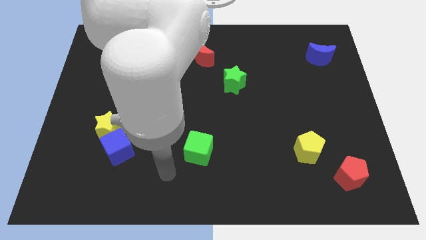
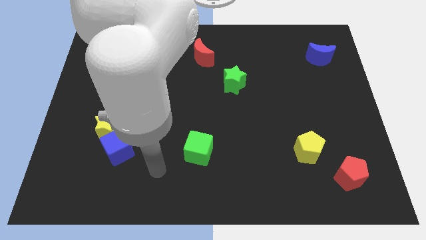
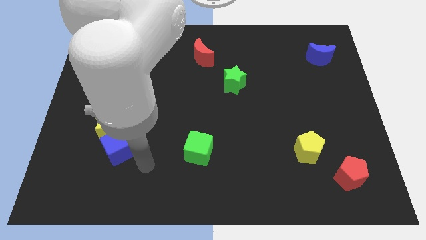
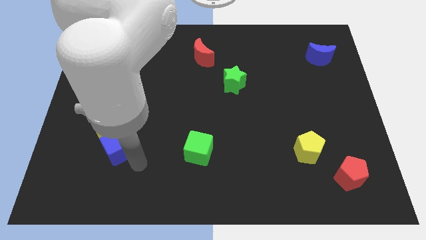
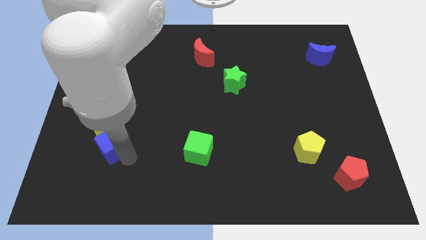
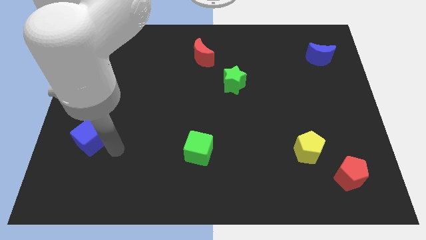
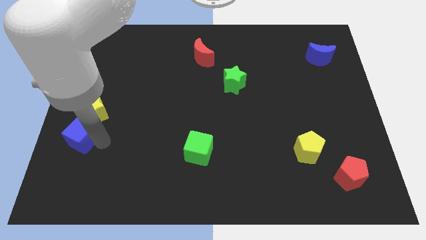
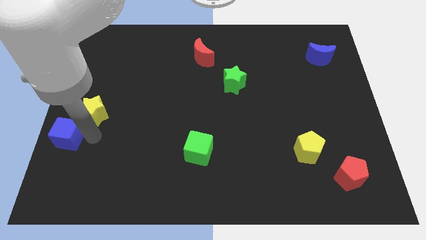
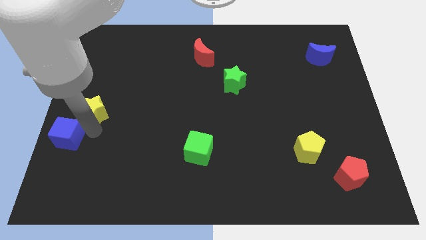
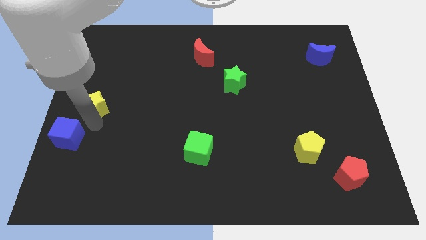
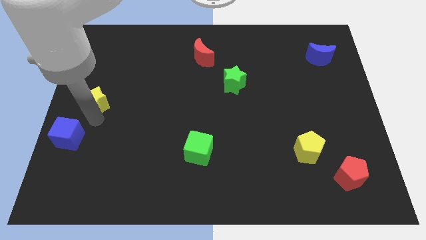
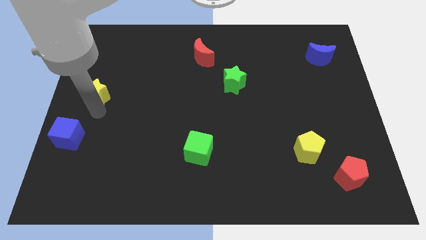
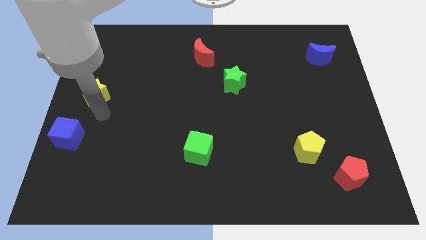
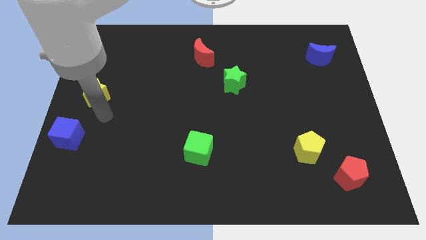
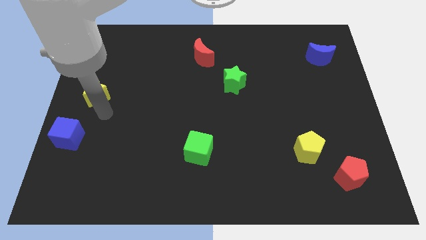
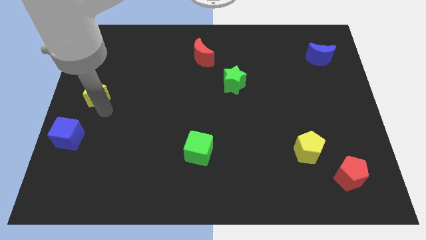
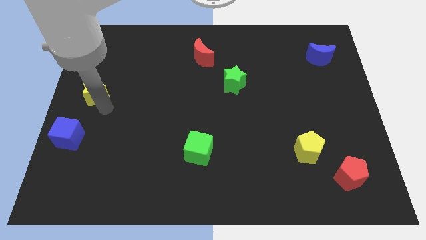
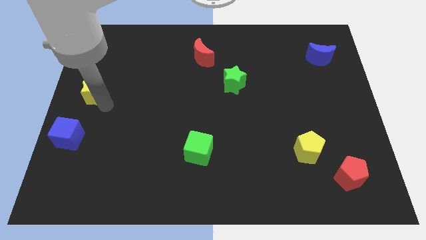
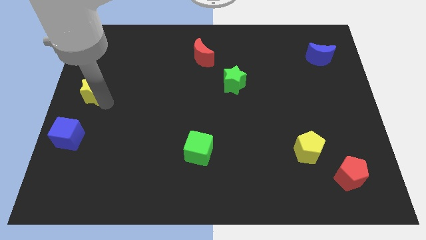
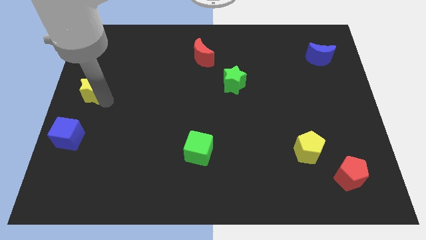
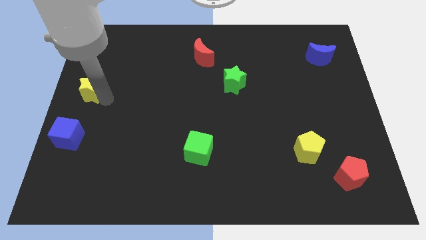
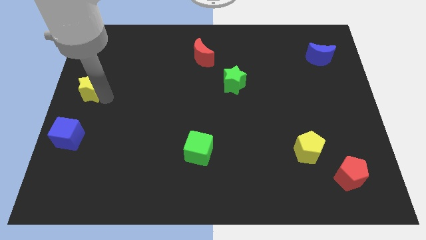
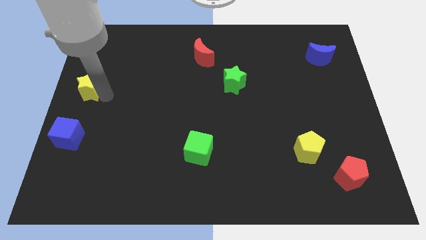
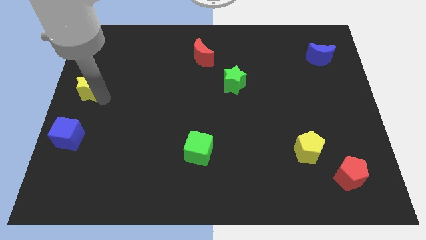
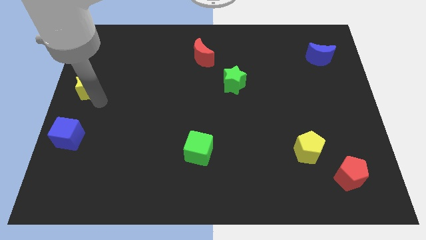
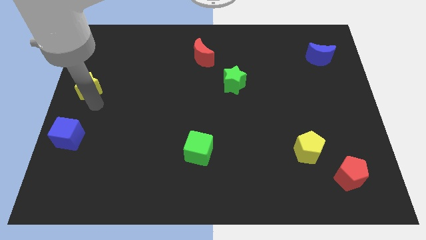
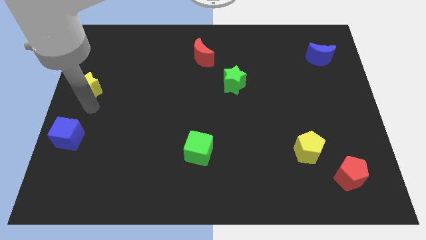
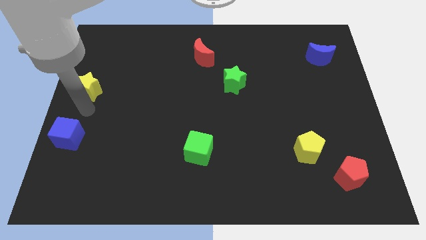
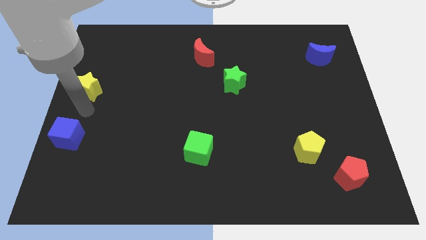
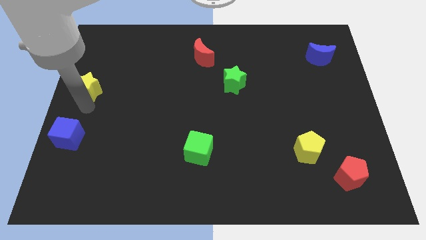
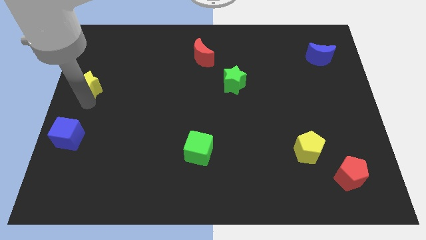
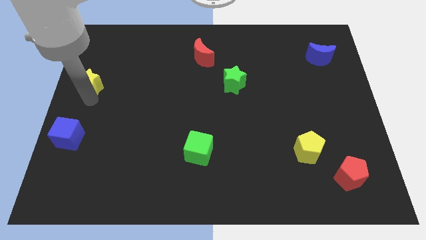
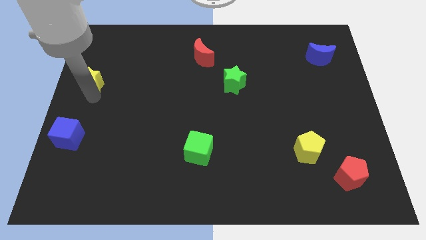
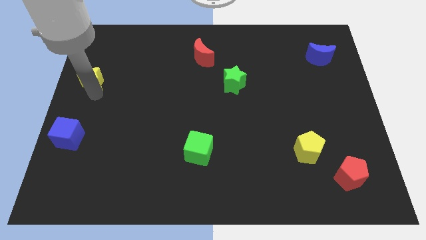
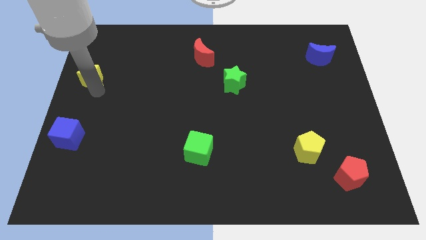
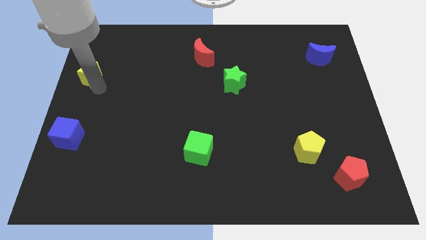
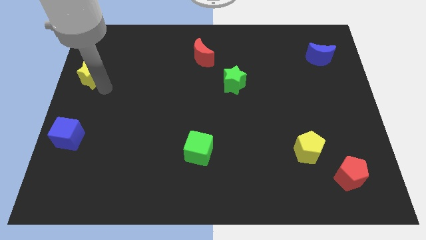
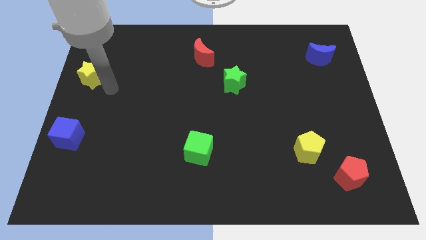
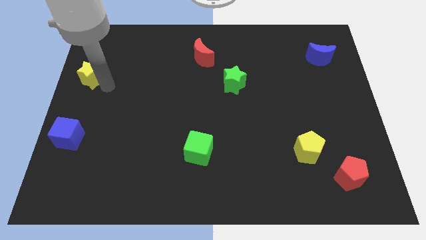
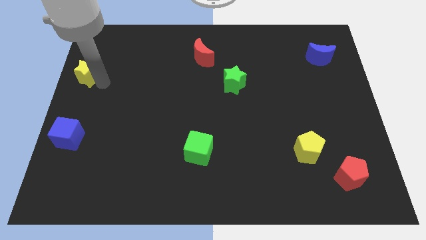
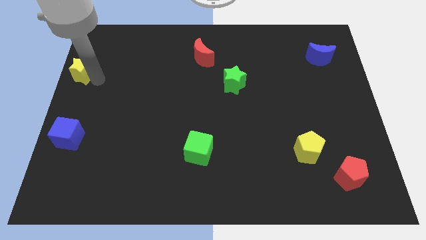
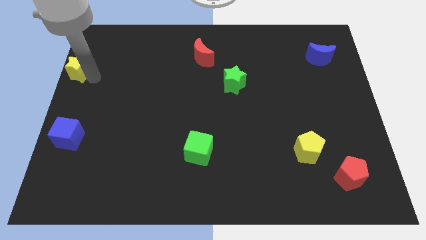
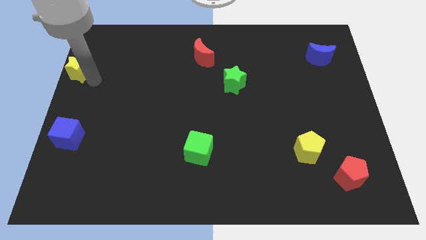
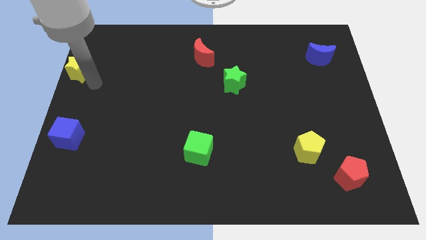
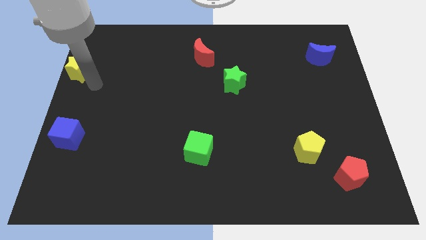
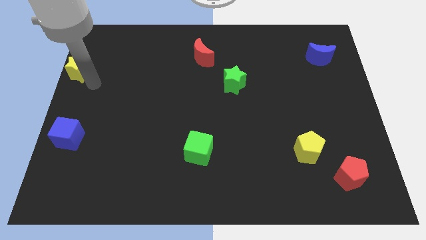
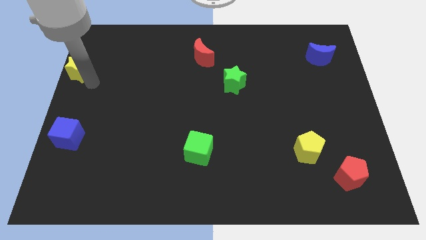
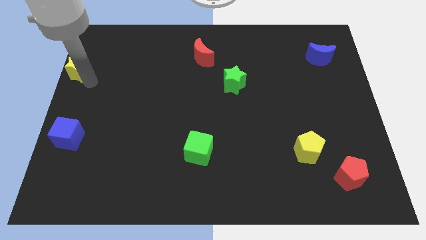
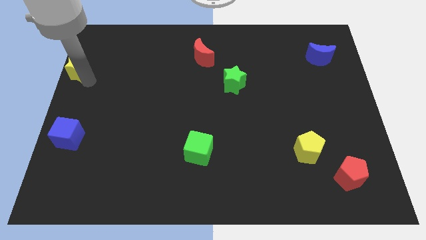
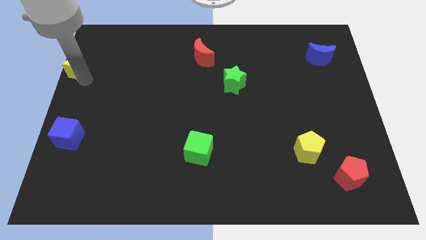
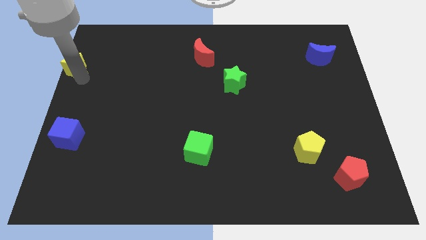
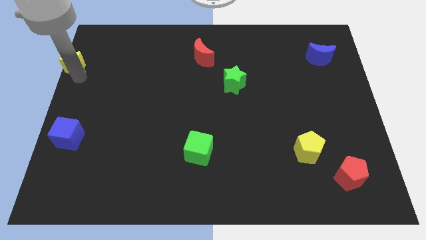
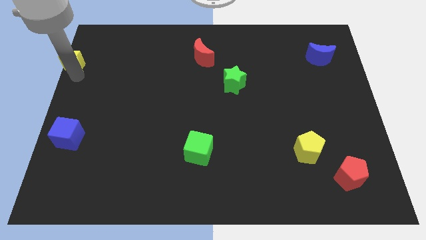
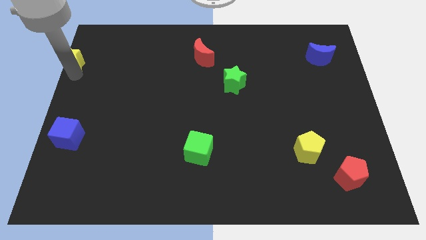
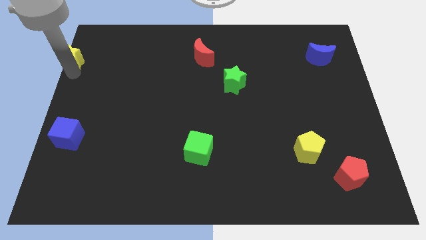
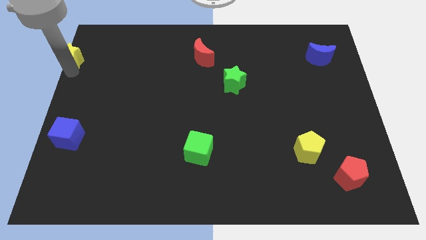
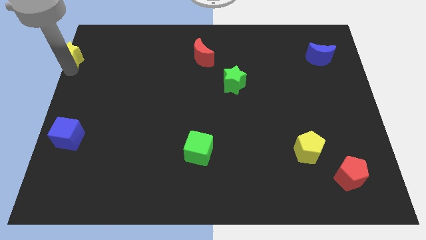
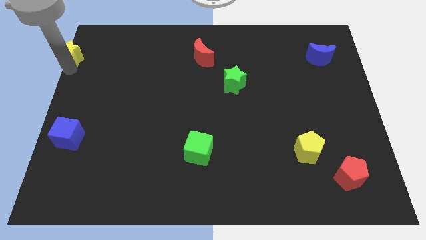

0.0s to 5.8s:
push the yellow star to the top left of the board

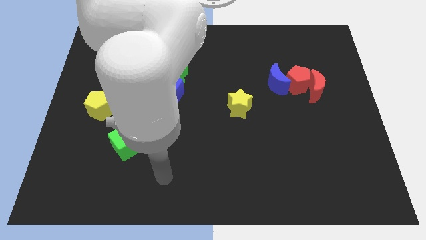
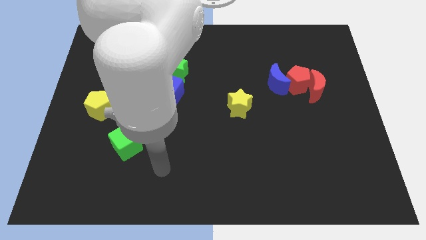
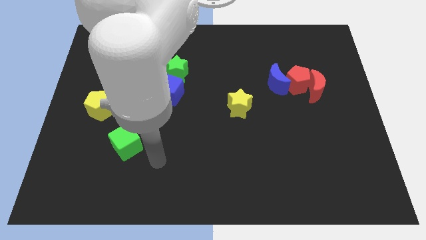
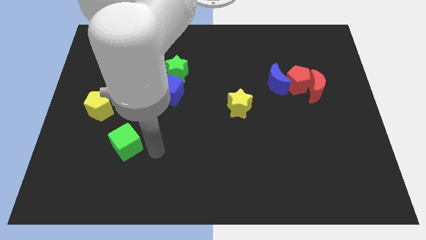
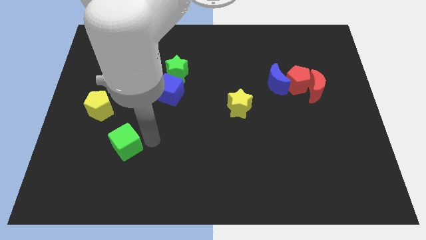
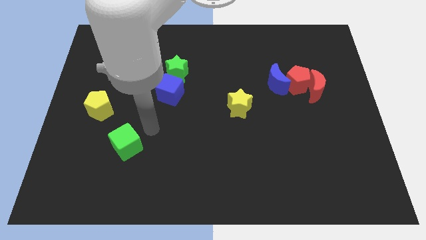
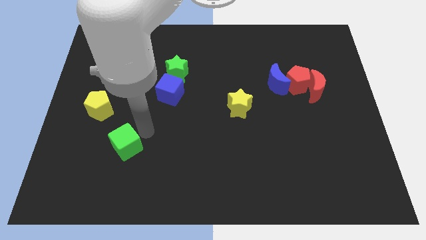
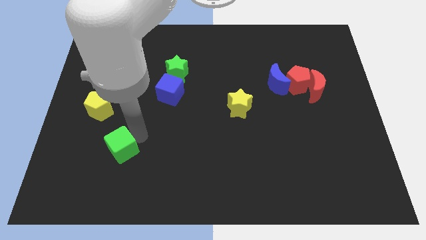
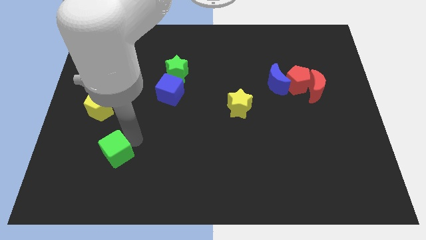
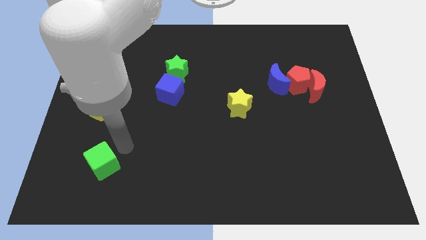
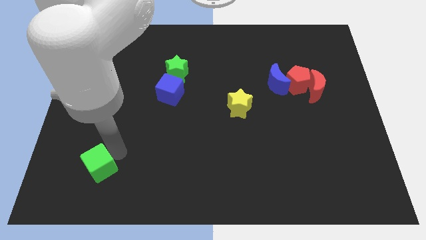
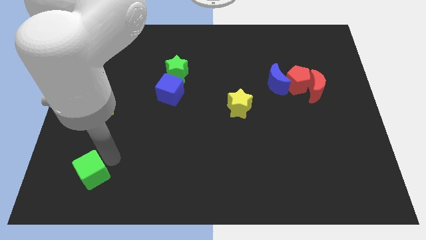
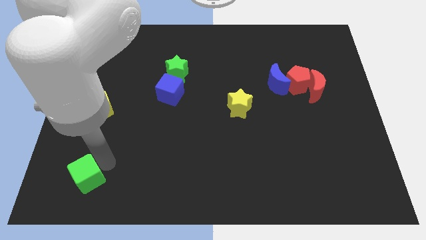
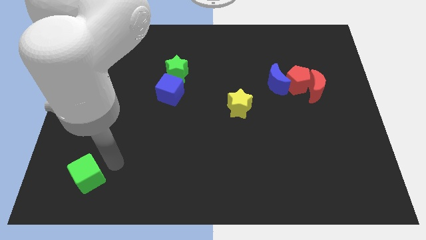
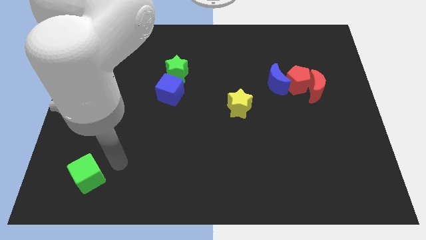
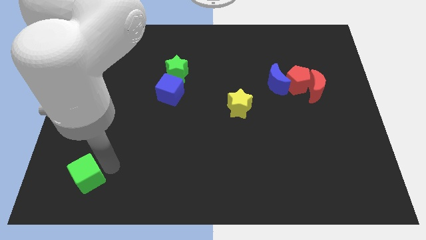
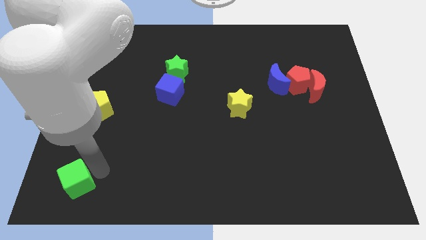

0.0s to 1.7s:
move the green cube to the bottom left
